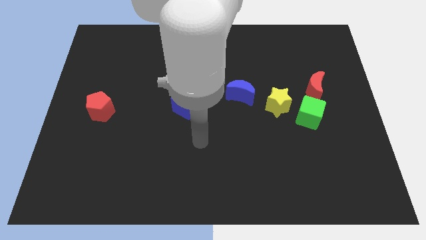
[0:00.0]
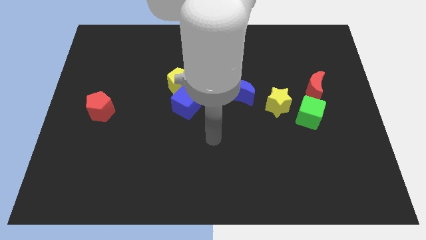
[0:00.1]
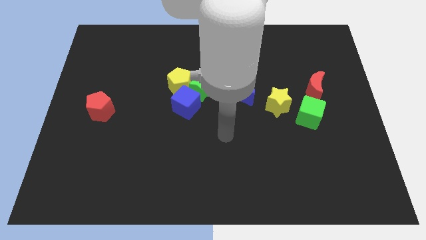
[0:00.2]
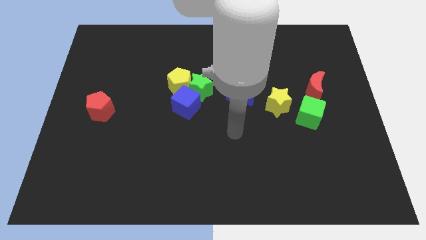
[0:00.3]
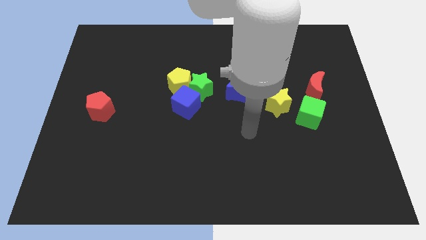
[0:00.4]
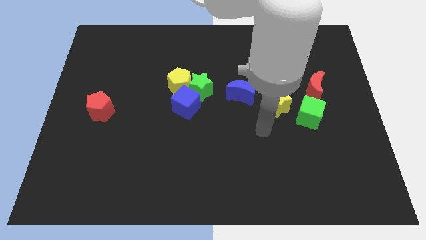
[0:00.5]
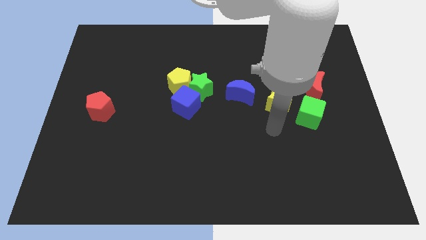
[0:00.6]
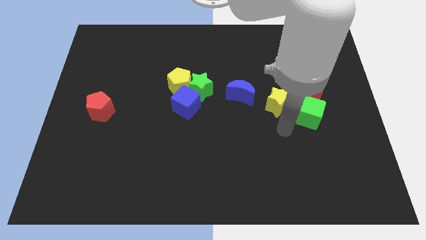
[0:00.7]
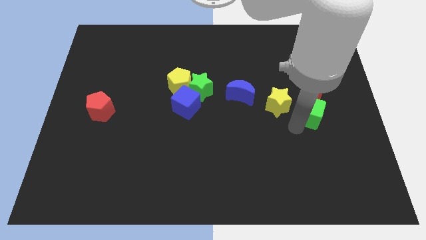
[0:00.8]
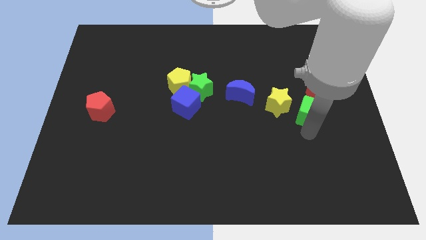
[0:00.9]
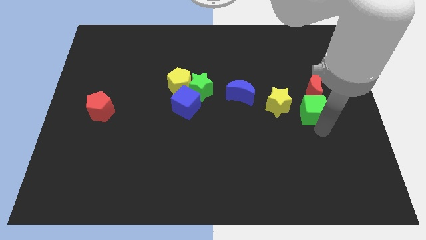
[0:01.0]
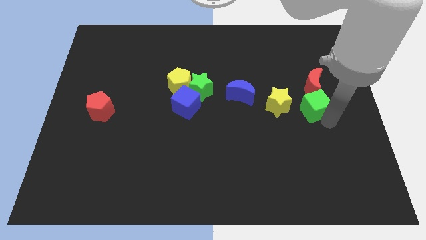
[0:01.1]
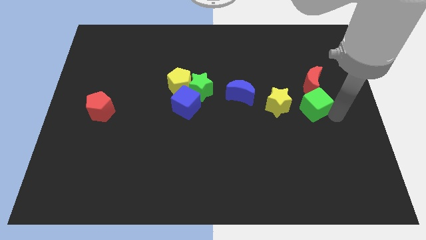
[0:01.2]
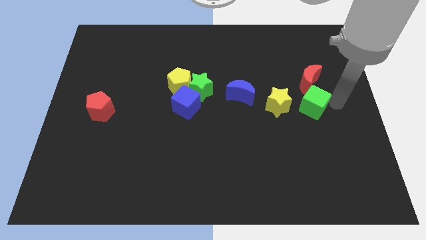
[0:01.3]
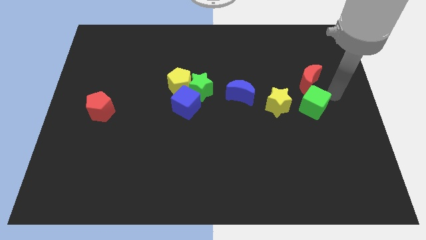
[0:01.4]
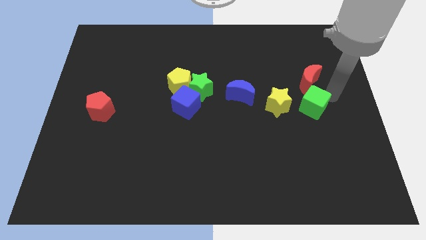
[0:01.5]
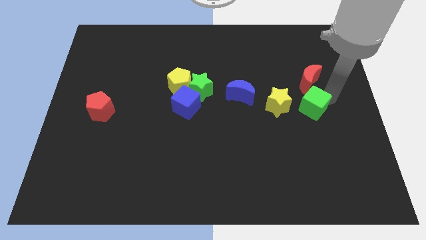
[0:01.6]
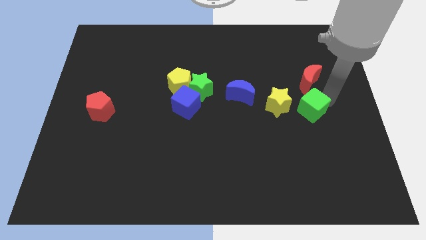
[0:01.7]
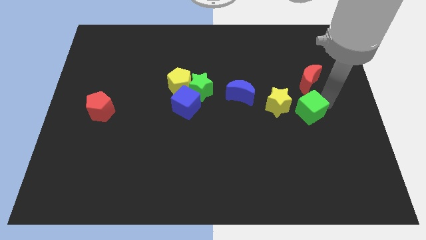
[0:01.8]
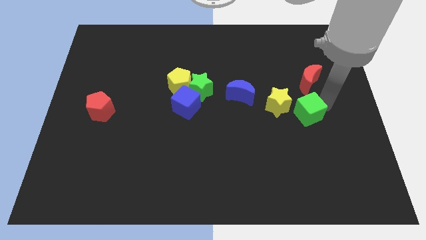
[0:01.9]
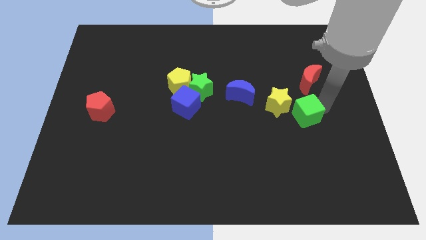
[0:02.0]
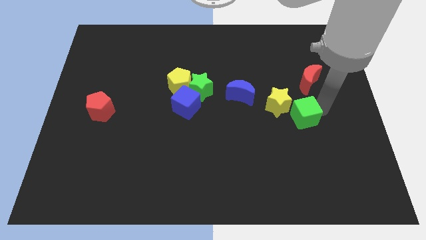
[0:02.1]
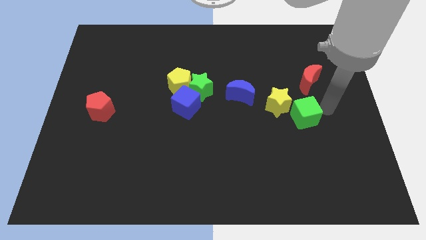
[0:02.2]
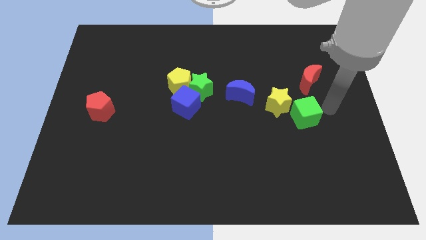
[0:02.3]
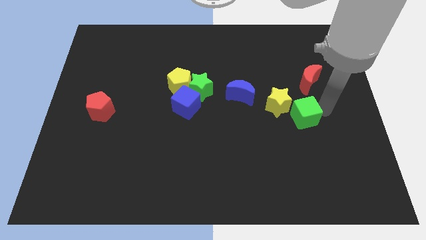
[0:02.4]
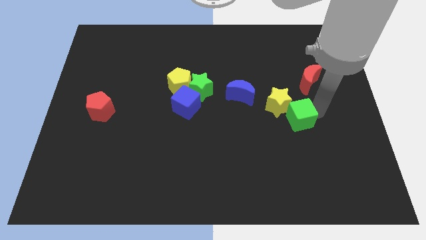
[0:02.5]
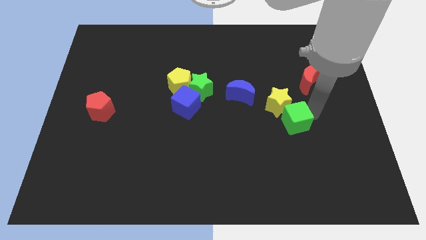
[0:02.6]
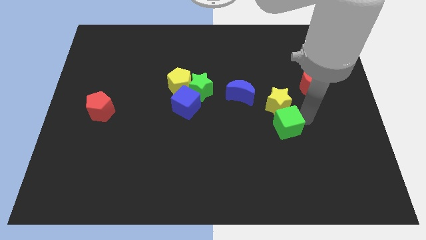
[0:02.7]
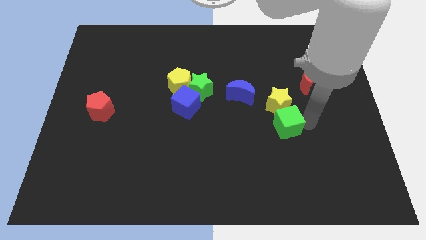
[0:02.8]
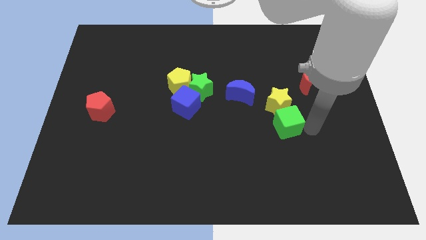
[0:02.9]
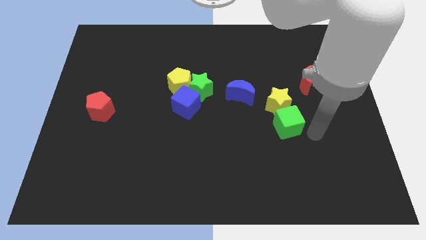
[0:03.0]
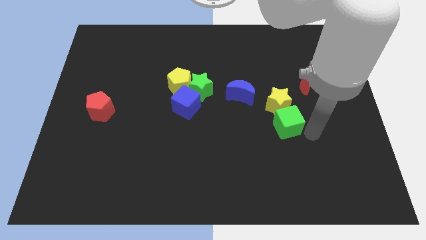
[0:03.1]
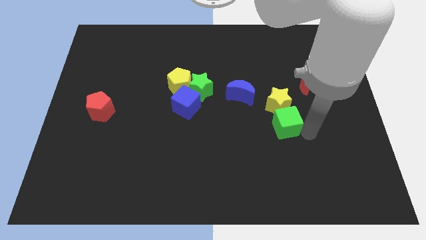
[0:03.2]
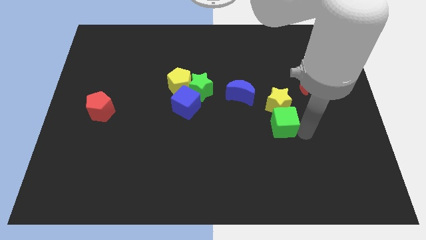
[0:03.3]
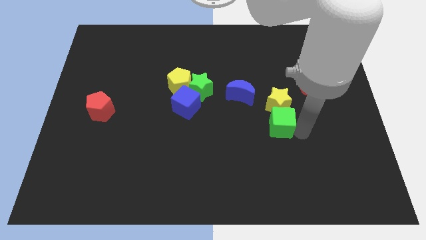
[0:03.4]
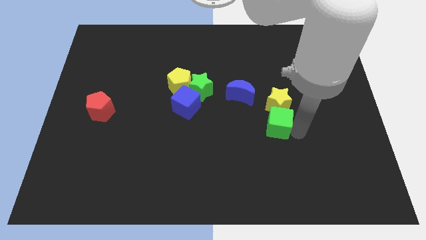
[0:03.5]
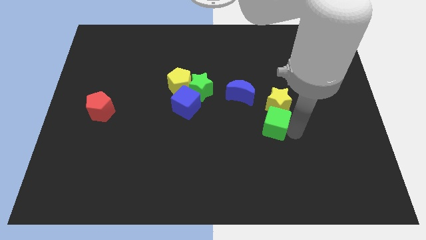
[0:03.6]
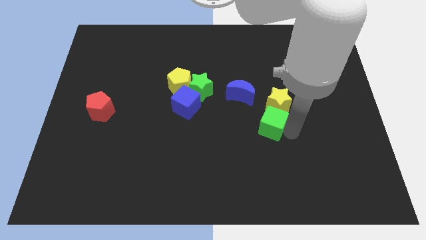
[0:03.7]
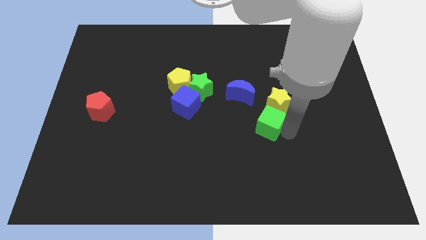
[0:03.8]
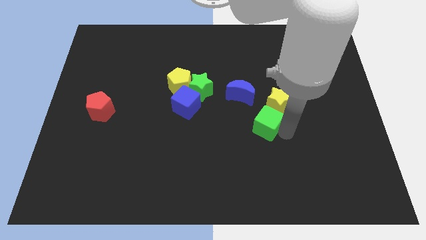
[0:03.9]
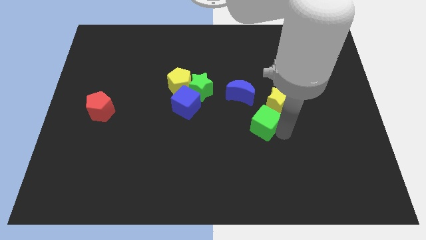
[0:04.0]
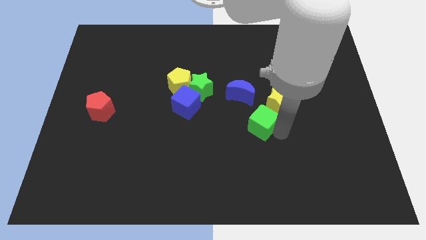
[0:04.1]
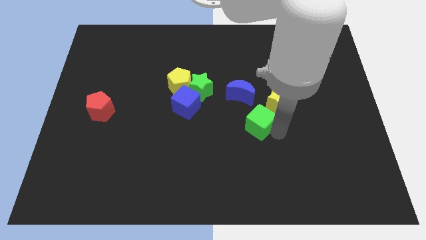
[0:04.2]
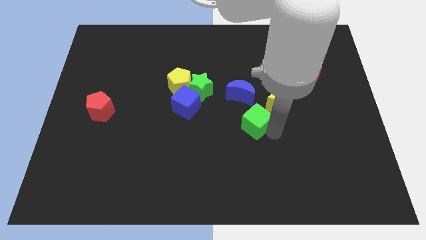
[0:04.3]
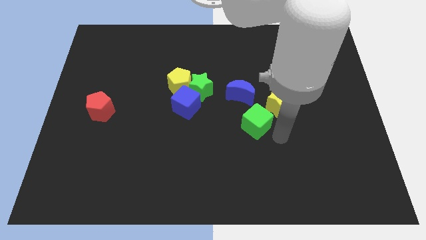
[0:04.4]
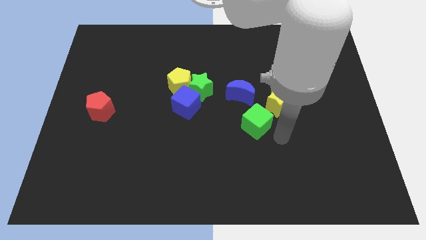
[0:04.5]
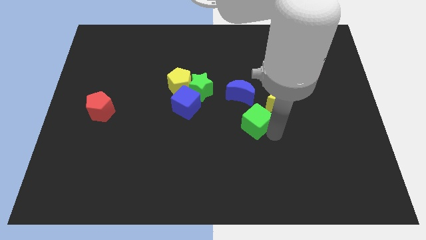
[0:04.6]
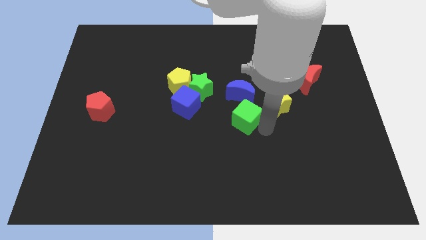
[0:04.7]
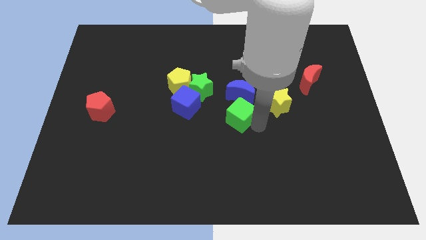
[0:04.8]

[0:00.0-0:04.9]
push the green cube to the bottom right of the green star

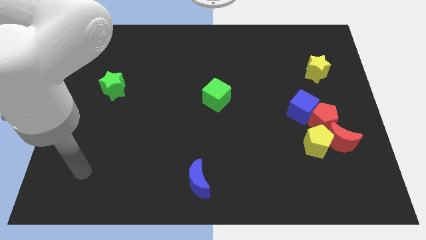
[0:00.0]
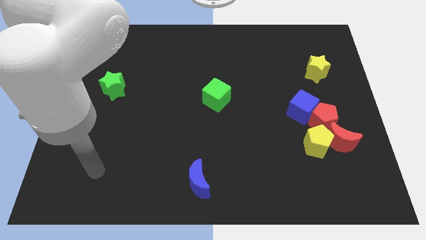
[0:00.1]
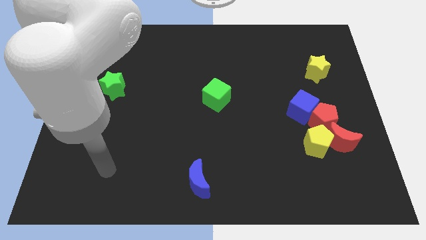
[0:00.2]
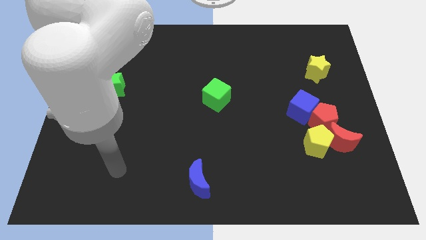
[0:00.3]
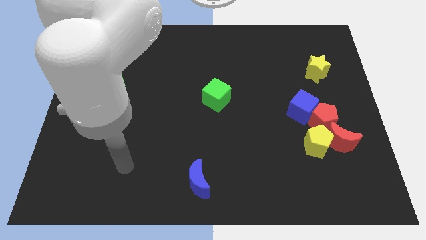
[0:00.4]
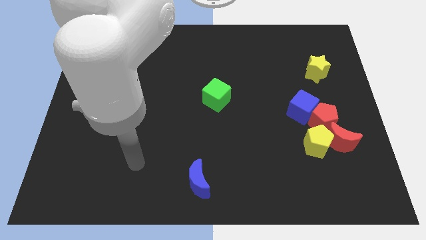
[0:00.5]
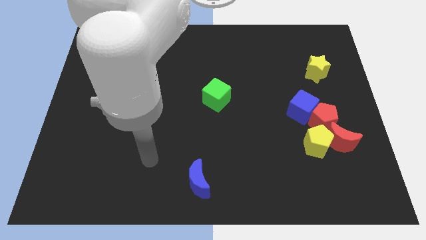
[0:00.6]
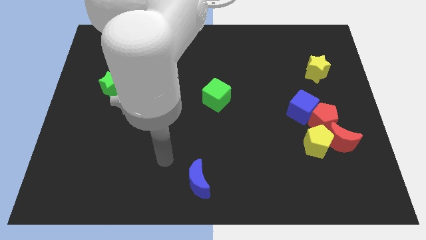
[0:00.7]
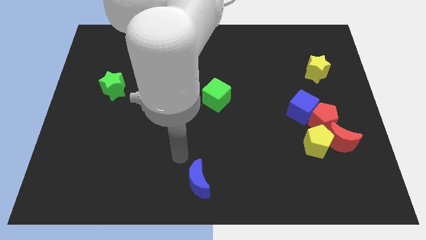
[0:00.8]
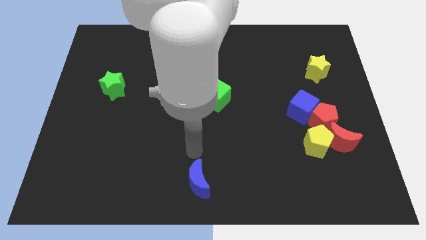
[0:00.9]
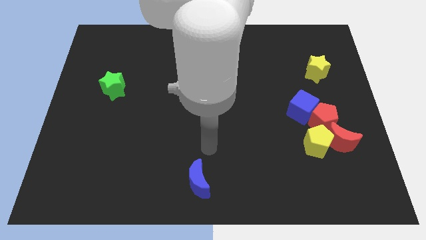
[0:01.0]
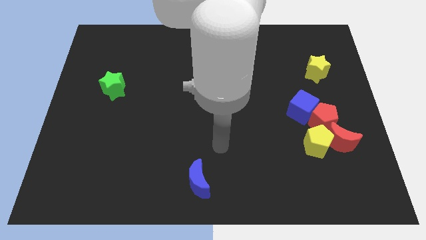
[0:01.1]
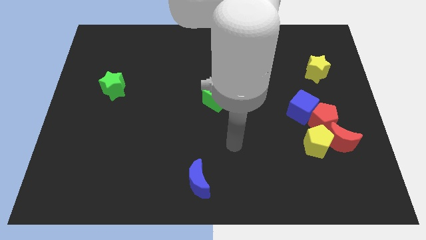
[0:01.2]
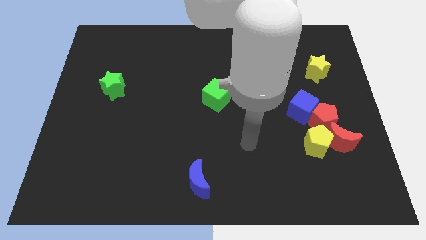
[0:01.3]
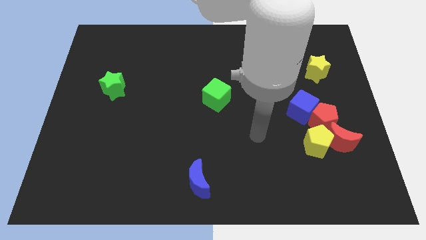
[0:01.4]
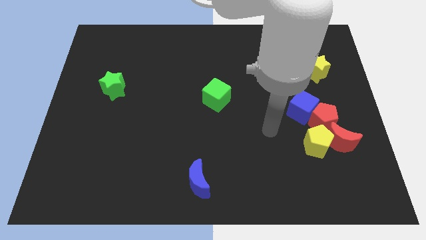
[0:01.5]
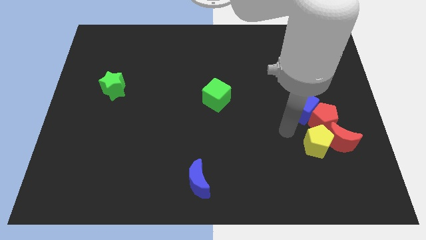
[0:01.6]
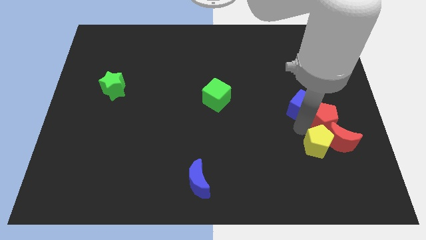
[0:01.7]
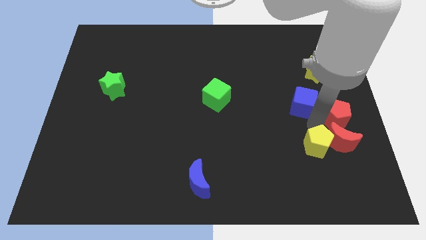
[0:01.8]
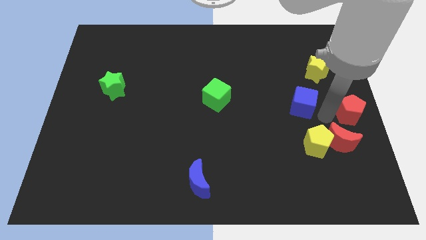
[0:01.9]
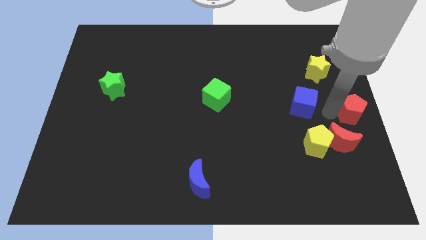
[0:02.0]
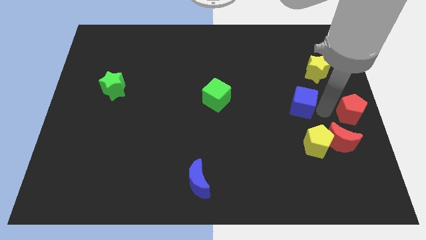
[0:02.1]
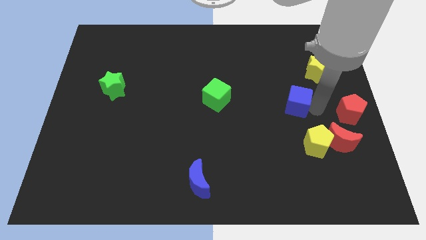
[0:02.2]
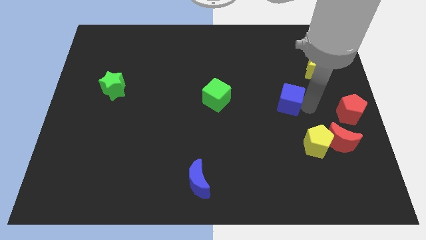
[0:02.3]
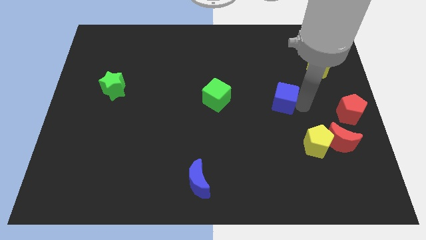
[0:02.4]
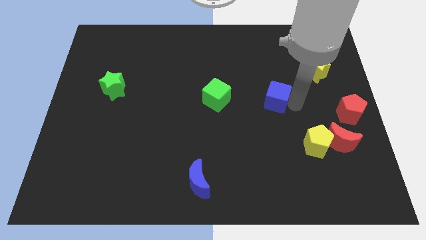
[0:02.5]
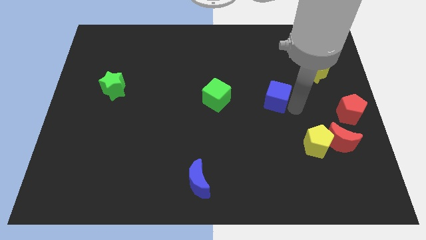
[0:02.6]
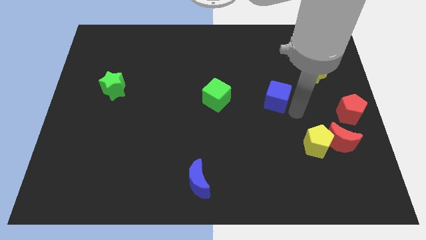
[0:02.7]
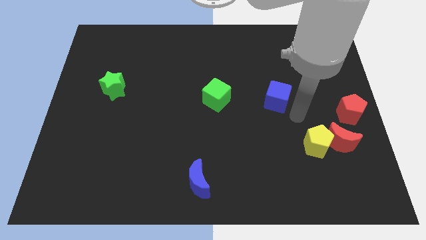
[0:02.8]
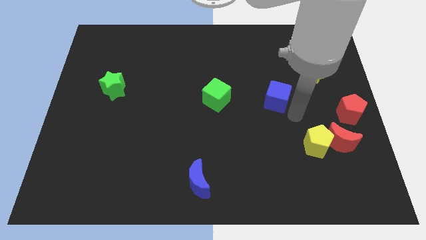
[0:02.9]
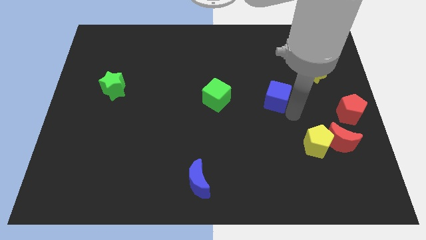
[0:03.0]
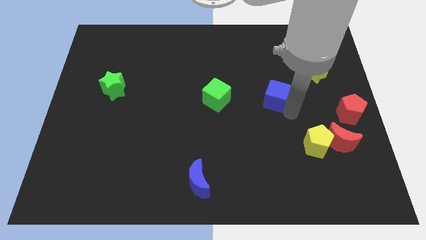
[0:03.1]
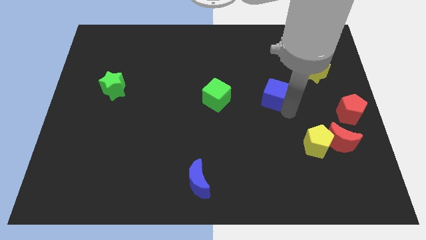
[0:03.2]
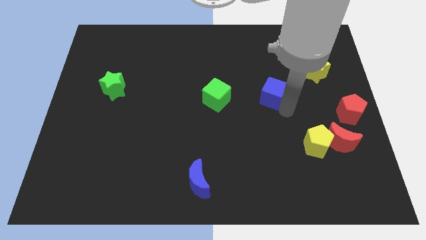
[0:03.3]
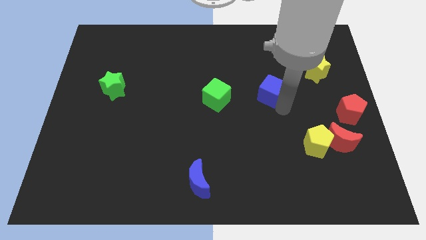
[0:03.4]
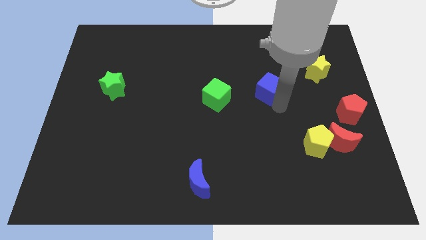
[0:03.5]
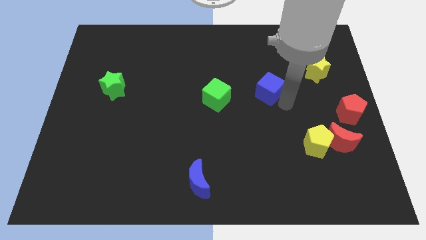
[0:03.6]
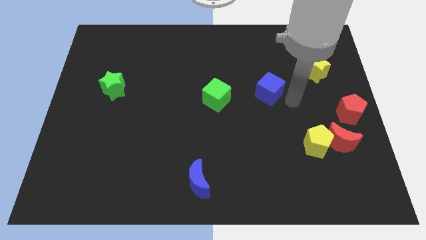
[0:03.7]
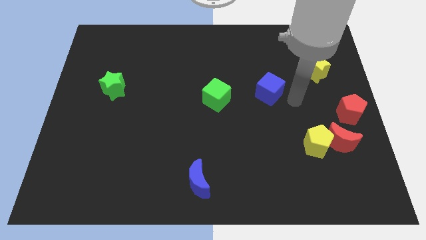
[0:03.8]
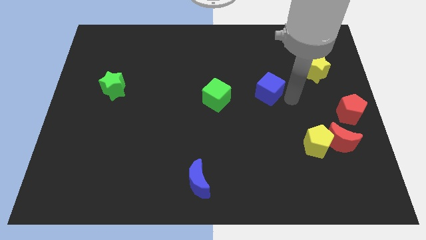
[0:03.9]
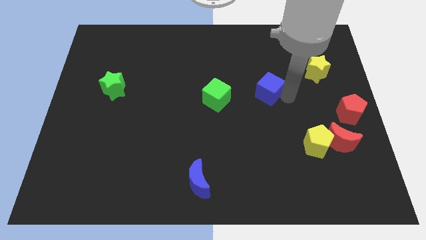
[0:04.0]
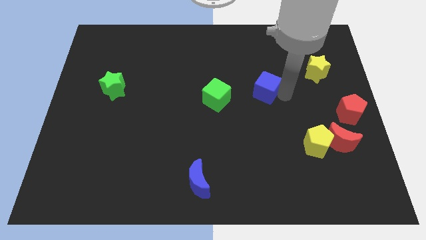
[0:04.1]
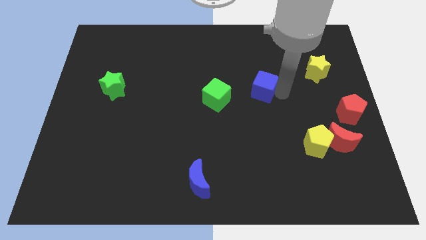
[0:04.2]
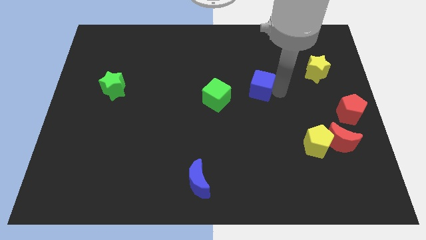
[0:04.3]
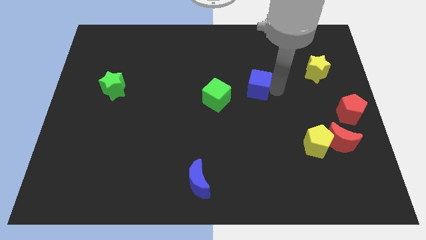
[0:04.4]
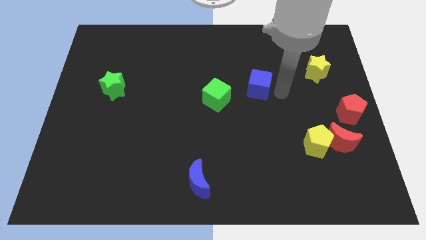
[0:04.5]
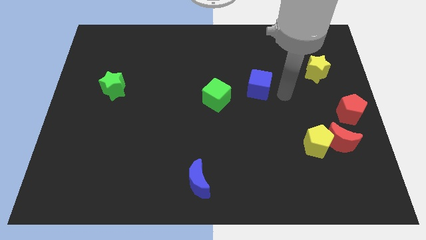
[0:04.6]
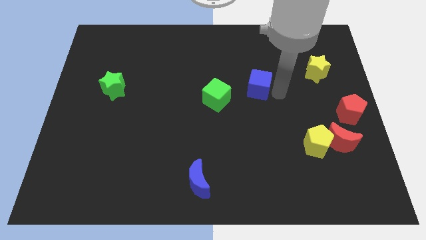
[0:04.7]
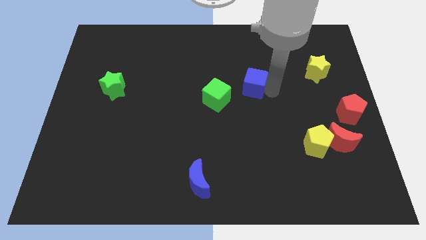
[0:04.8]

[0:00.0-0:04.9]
put the blue cube to the top right side of the green cube
